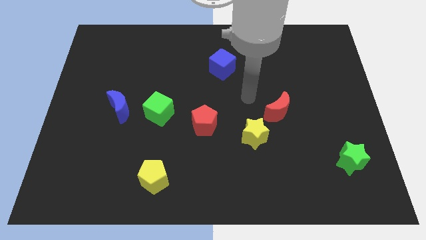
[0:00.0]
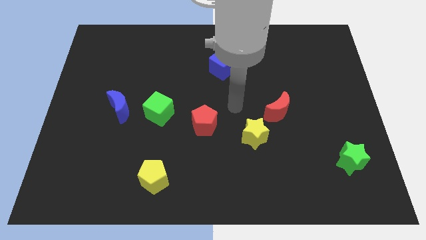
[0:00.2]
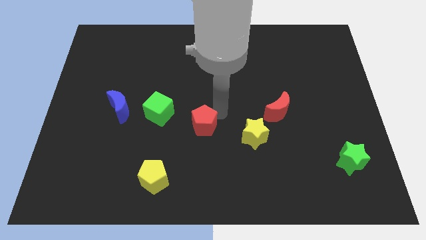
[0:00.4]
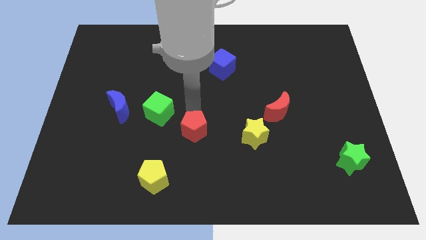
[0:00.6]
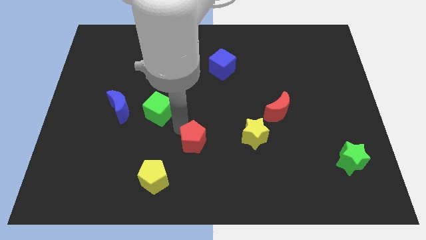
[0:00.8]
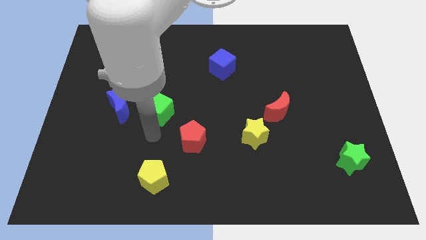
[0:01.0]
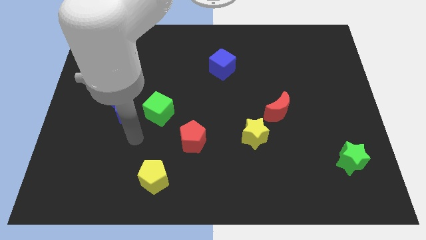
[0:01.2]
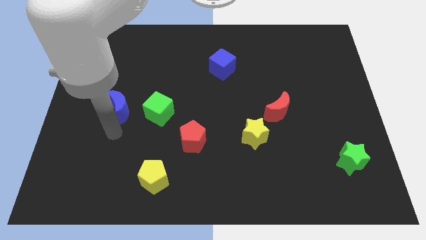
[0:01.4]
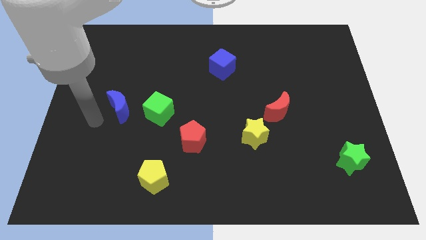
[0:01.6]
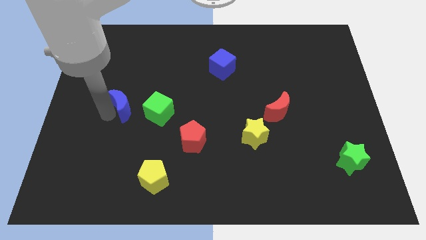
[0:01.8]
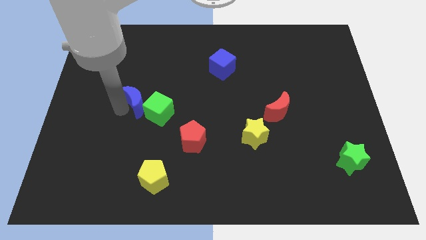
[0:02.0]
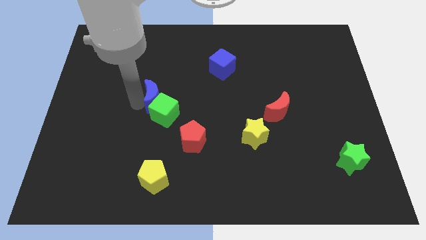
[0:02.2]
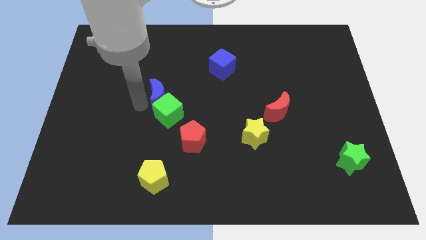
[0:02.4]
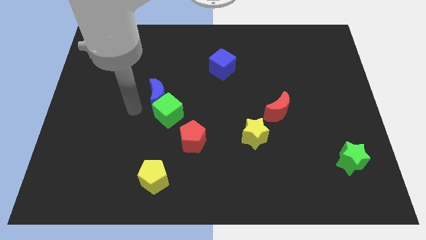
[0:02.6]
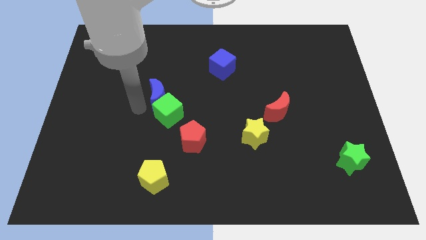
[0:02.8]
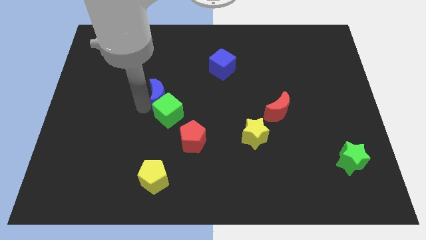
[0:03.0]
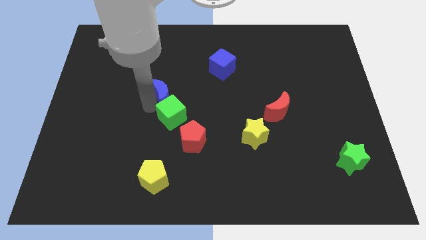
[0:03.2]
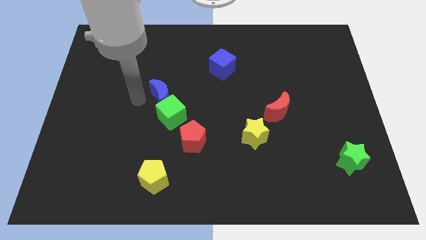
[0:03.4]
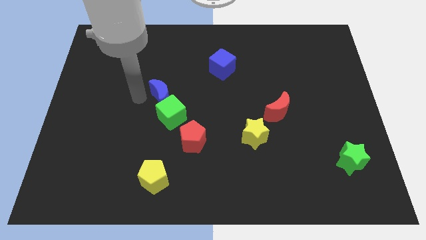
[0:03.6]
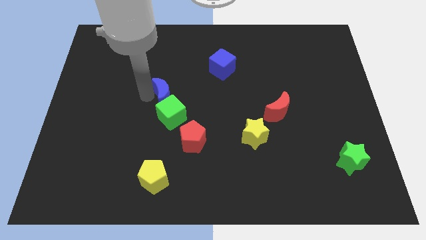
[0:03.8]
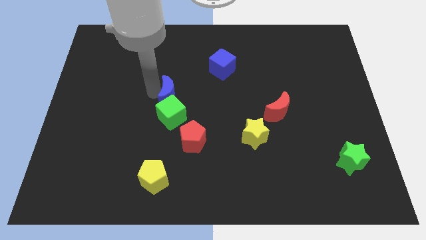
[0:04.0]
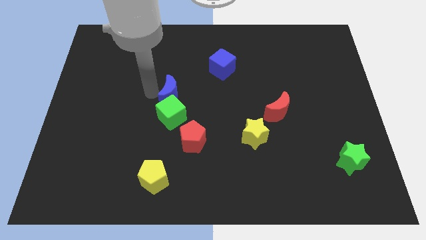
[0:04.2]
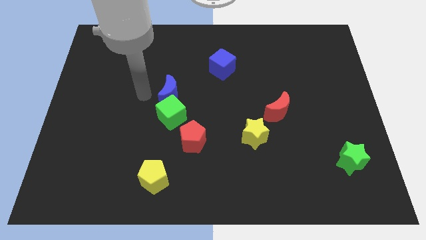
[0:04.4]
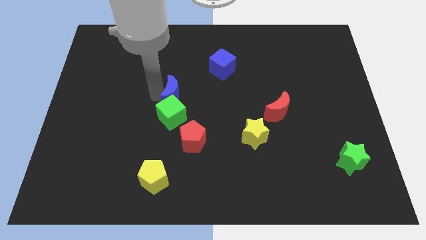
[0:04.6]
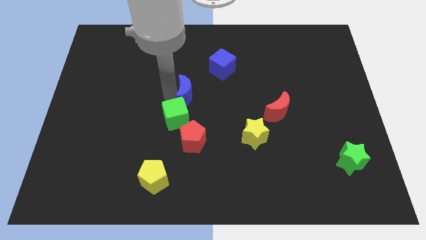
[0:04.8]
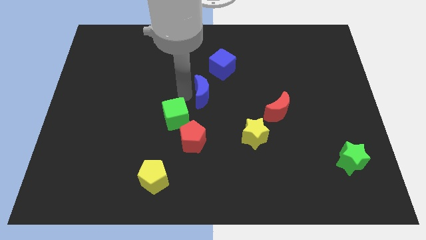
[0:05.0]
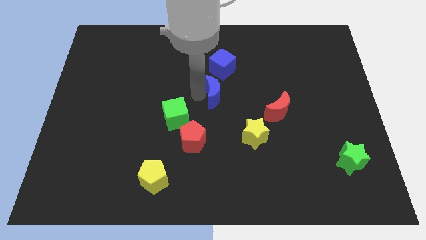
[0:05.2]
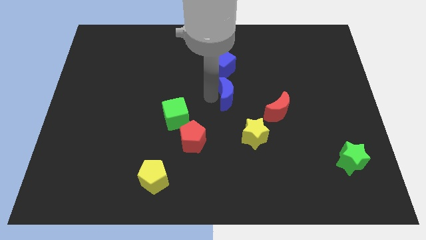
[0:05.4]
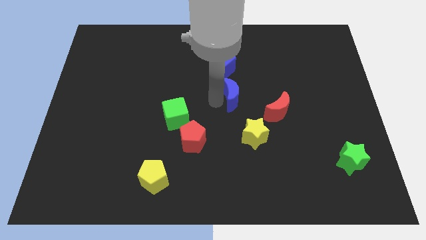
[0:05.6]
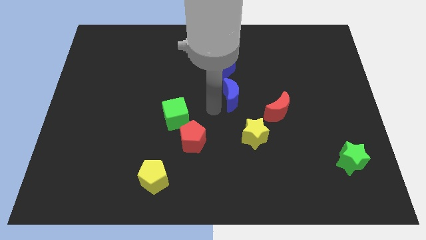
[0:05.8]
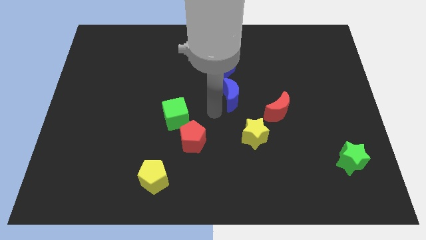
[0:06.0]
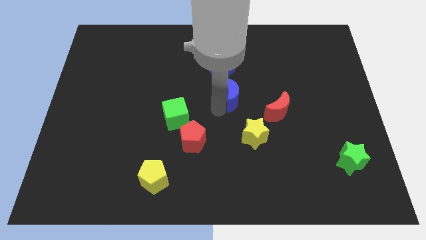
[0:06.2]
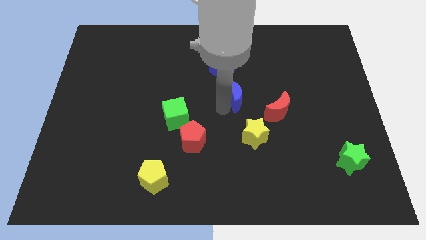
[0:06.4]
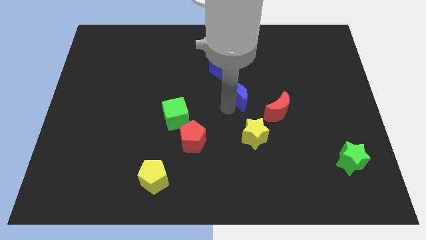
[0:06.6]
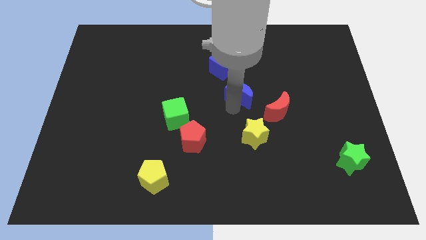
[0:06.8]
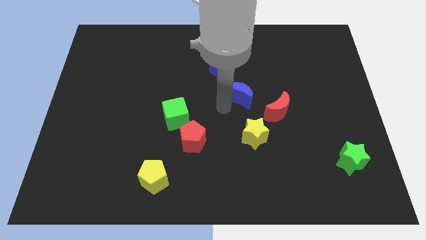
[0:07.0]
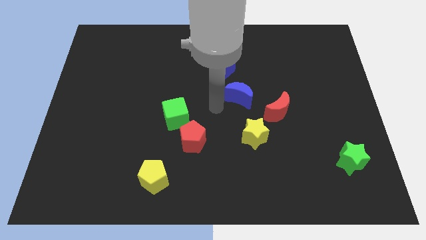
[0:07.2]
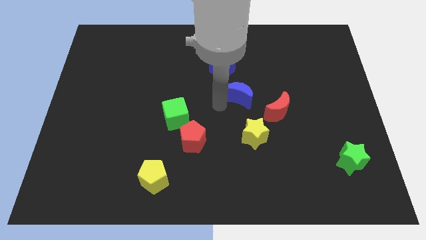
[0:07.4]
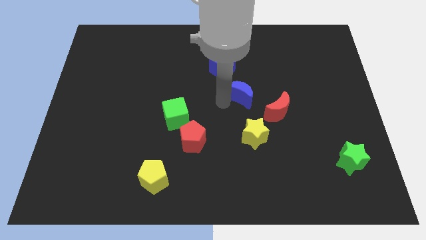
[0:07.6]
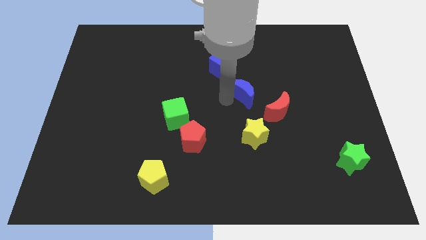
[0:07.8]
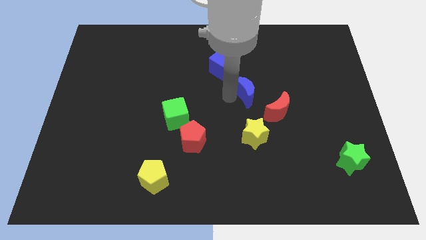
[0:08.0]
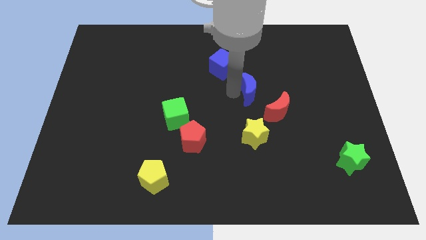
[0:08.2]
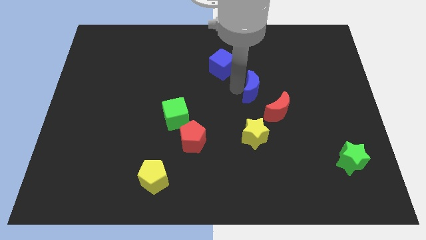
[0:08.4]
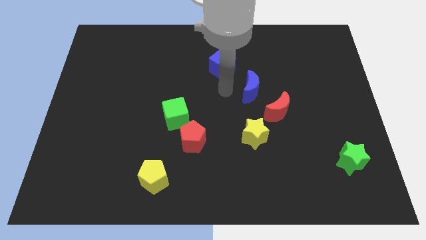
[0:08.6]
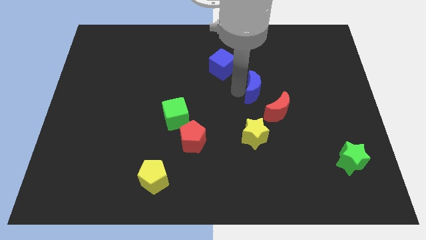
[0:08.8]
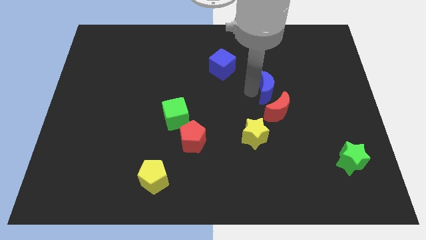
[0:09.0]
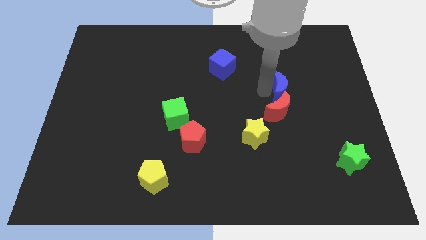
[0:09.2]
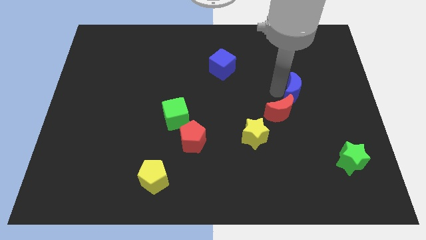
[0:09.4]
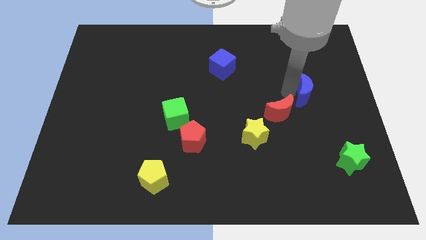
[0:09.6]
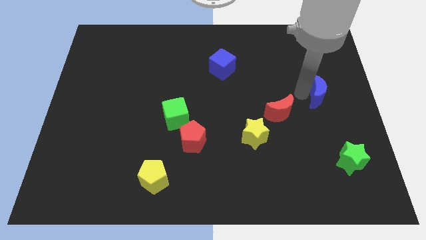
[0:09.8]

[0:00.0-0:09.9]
move the blue moon to the center right

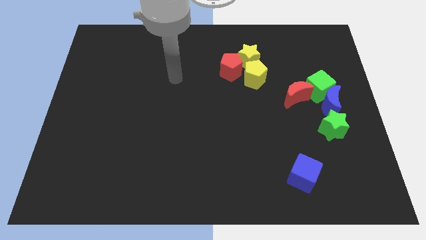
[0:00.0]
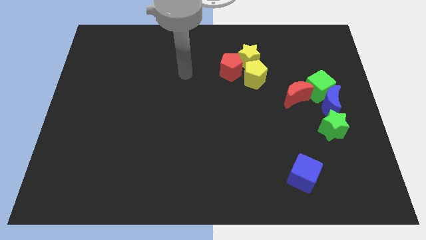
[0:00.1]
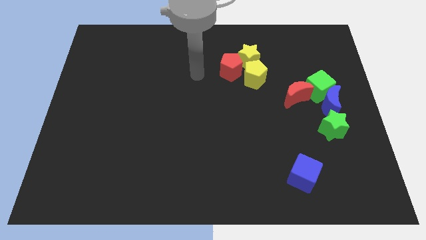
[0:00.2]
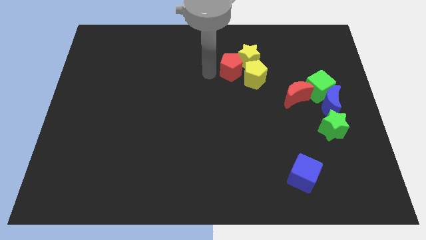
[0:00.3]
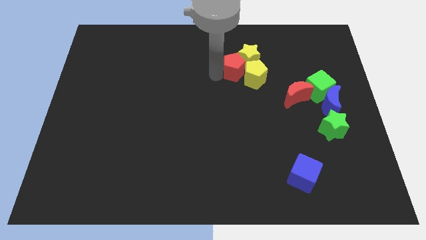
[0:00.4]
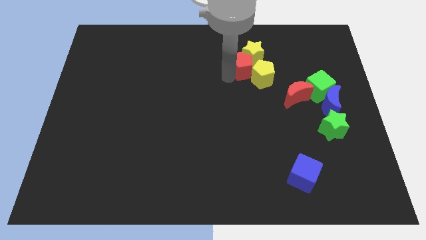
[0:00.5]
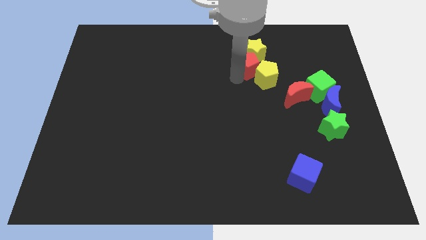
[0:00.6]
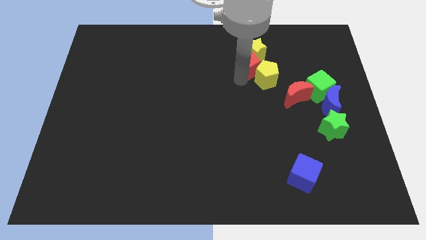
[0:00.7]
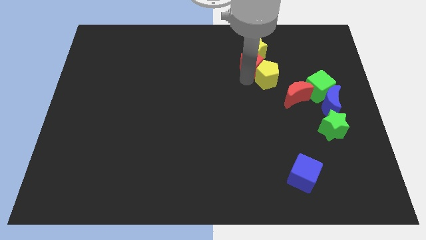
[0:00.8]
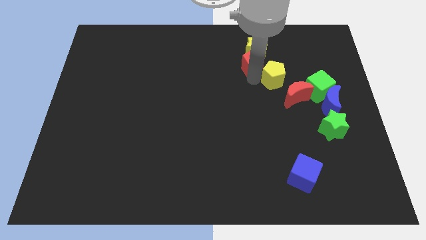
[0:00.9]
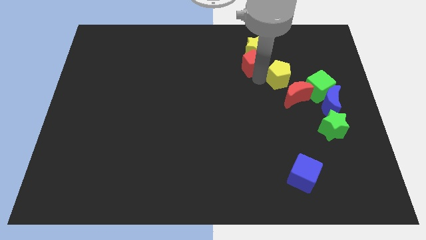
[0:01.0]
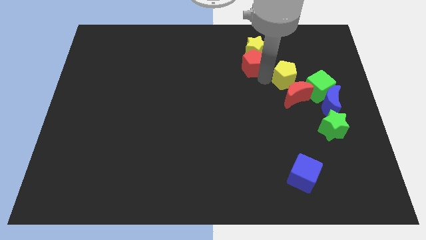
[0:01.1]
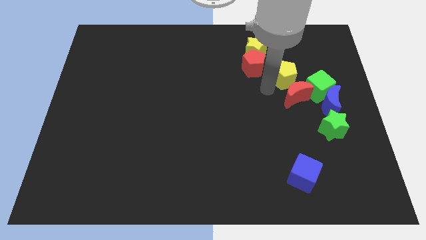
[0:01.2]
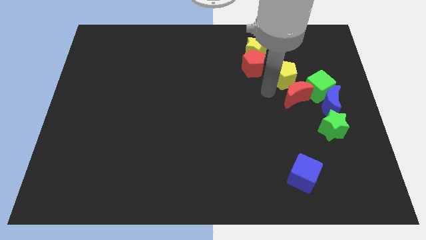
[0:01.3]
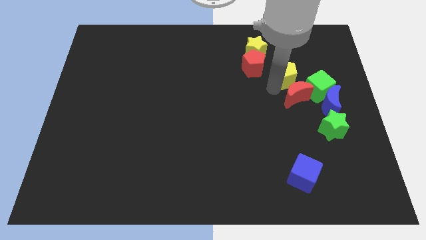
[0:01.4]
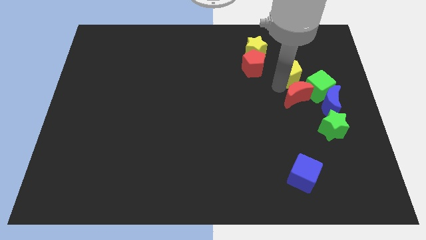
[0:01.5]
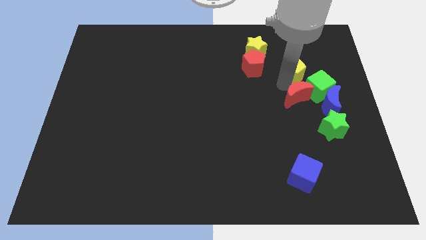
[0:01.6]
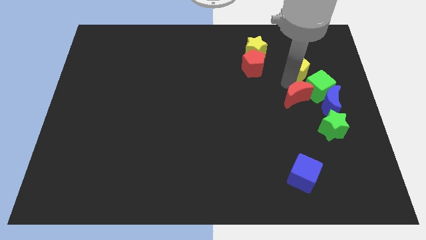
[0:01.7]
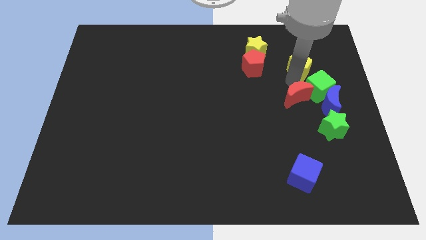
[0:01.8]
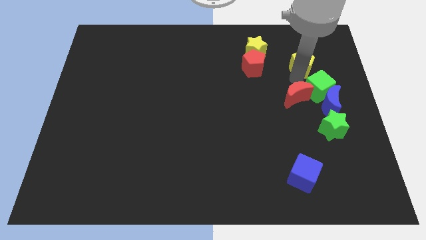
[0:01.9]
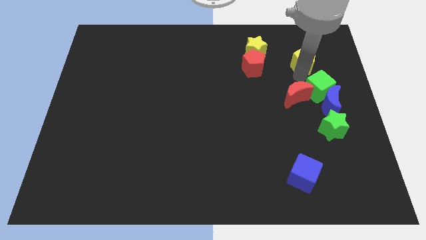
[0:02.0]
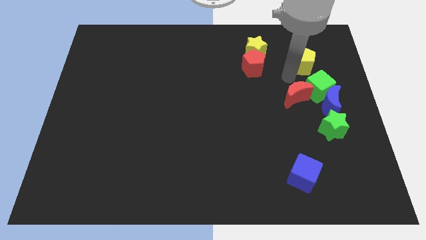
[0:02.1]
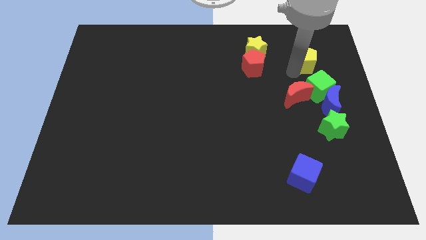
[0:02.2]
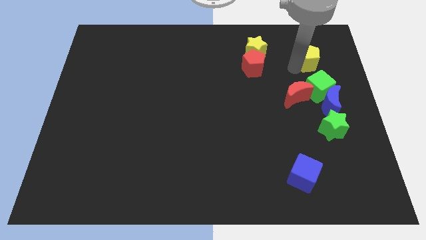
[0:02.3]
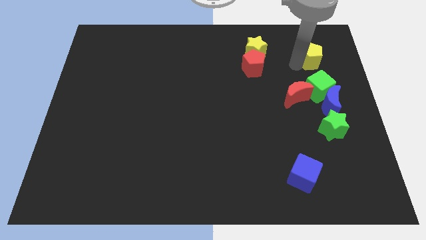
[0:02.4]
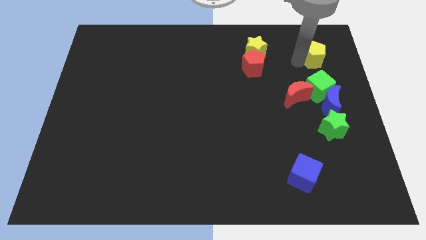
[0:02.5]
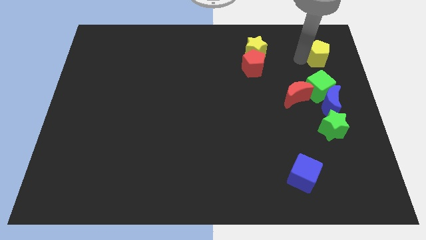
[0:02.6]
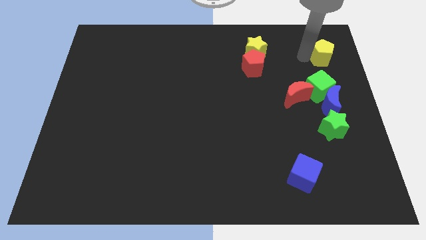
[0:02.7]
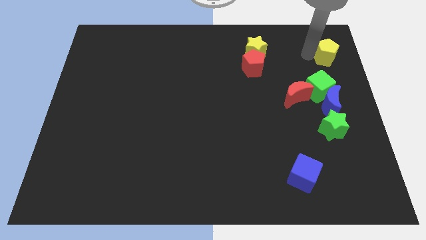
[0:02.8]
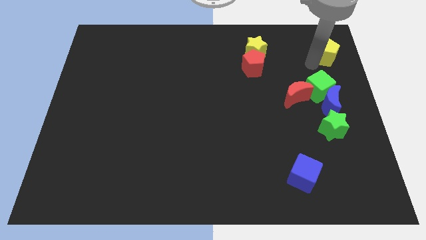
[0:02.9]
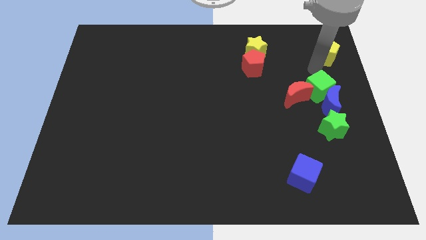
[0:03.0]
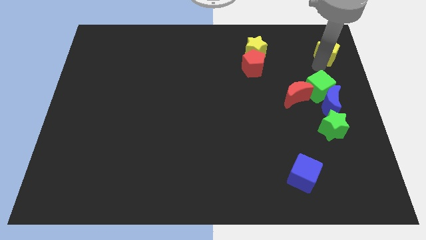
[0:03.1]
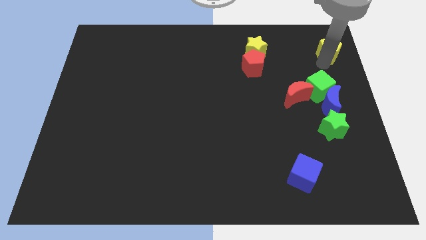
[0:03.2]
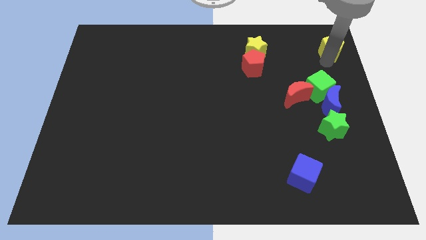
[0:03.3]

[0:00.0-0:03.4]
push the yellow pentagon to the top right
